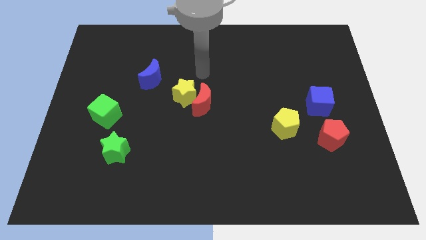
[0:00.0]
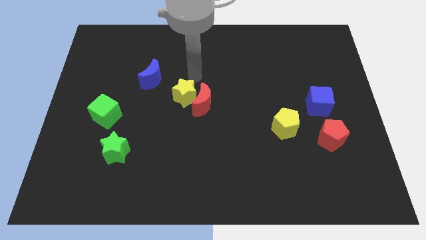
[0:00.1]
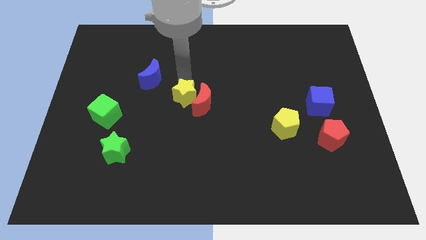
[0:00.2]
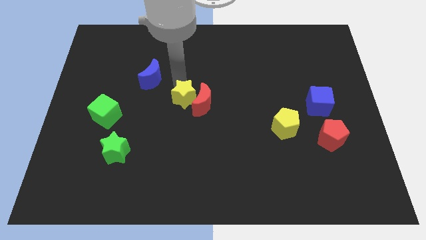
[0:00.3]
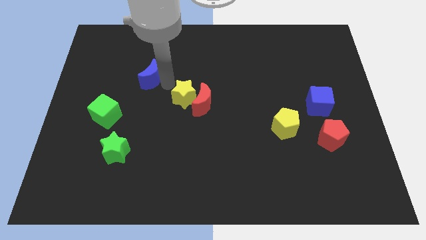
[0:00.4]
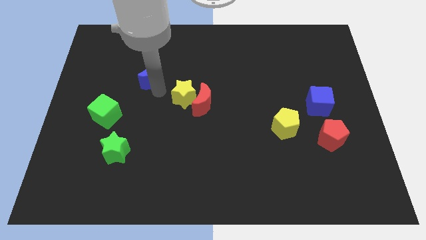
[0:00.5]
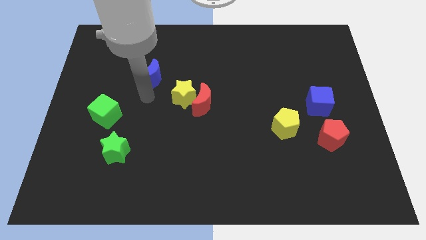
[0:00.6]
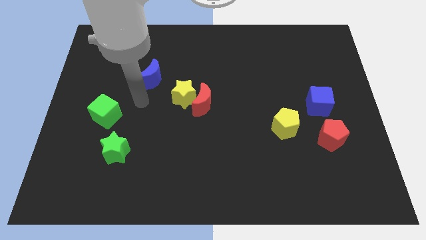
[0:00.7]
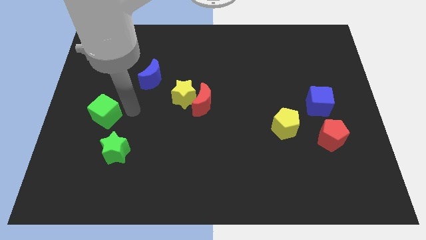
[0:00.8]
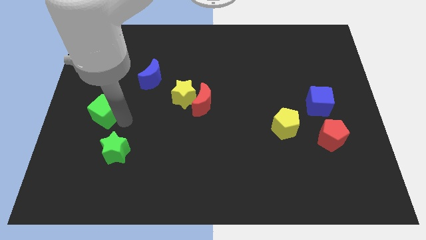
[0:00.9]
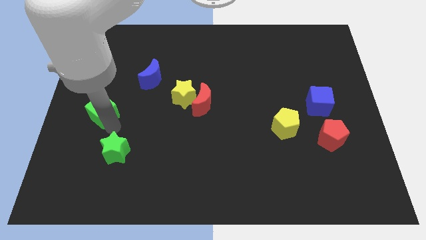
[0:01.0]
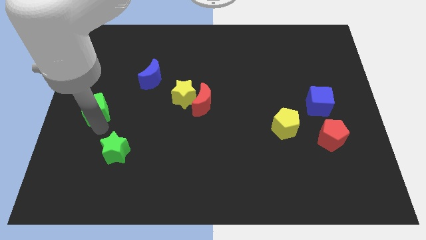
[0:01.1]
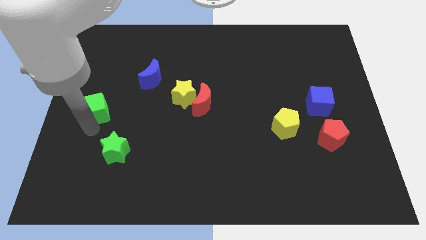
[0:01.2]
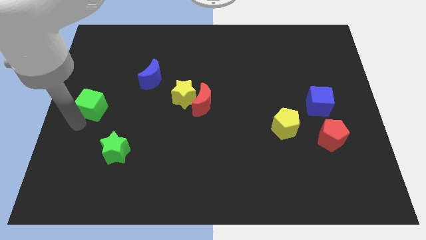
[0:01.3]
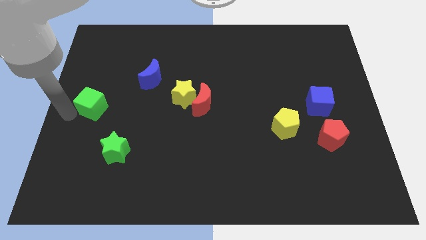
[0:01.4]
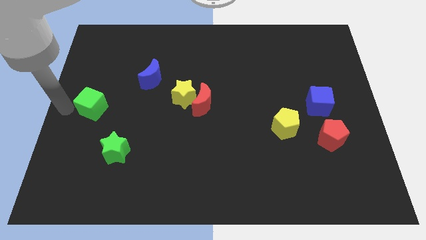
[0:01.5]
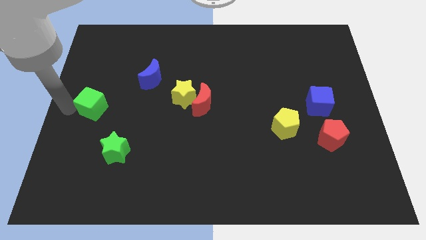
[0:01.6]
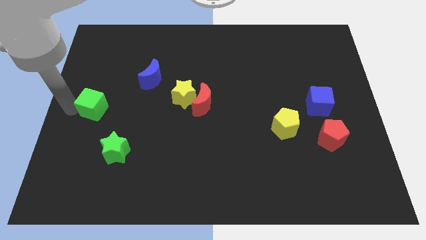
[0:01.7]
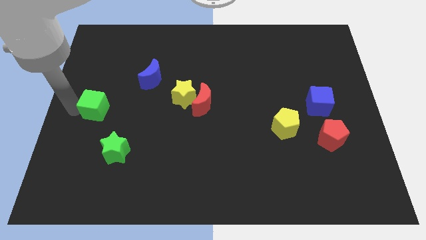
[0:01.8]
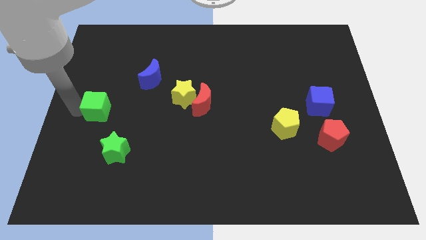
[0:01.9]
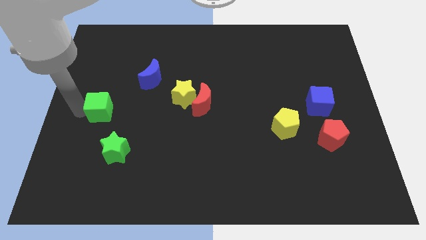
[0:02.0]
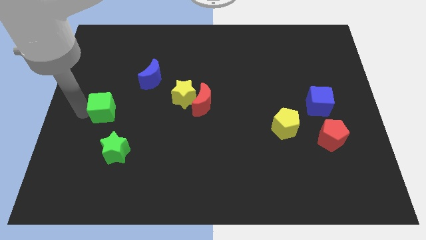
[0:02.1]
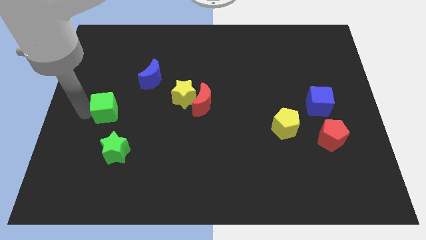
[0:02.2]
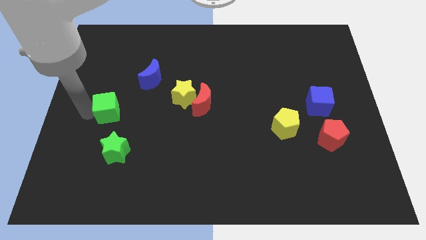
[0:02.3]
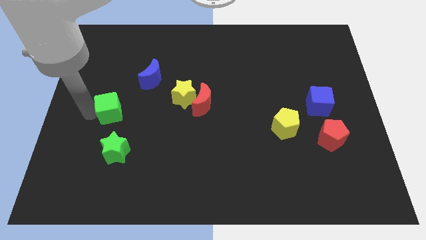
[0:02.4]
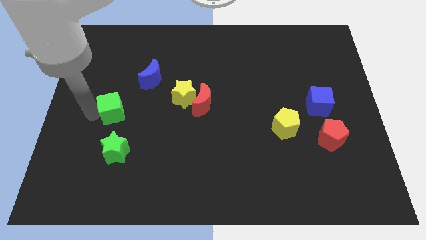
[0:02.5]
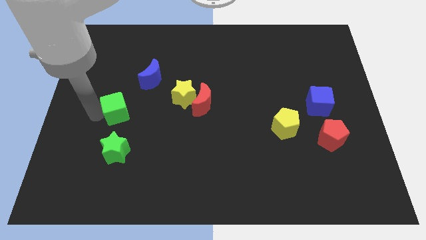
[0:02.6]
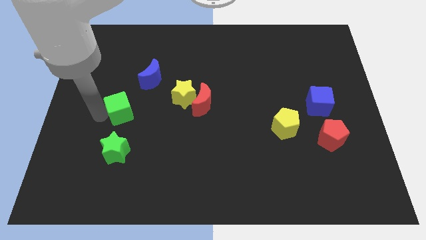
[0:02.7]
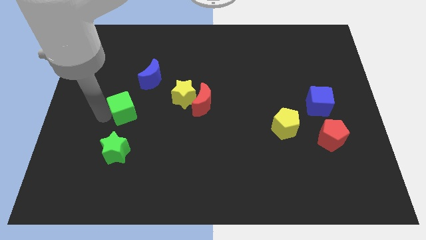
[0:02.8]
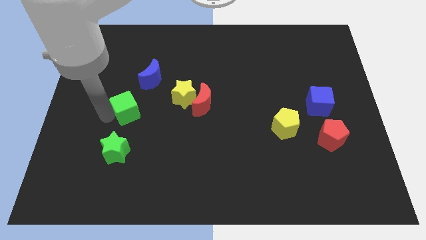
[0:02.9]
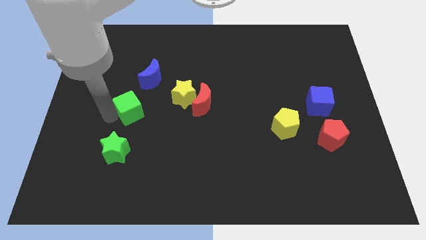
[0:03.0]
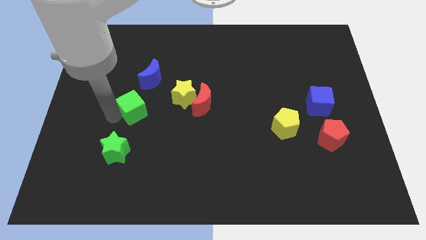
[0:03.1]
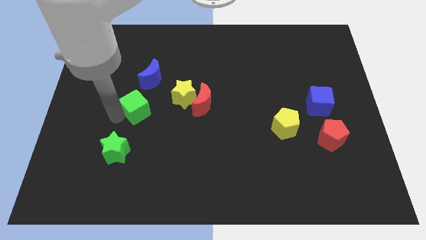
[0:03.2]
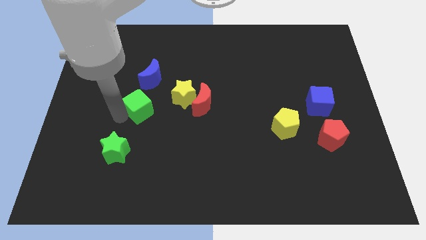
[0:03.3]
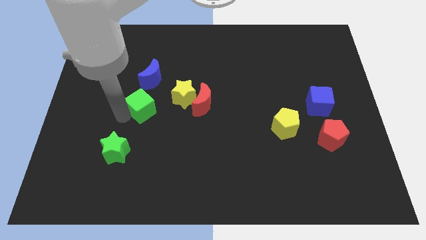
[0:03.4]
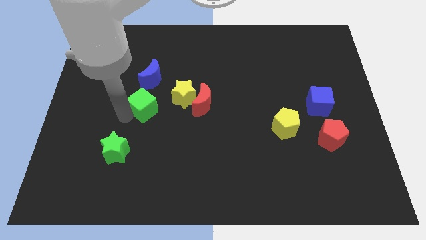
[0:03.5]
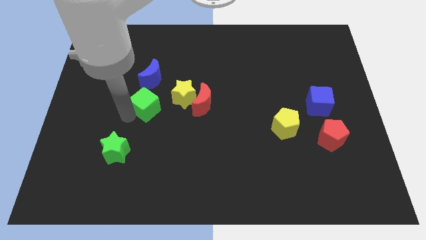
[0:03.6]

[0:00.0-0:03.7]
push the green cube a little upwards and then to the right

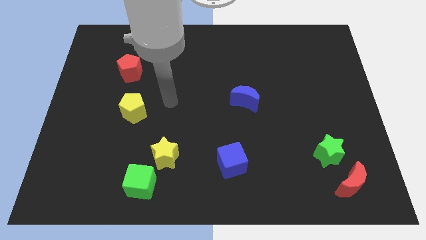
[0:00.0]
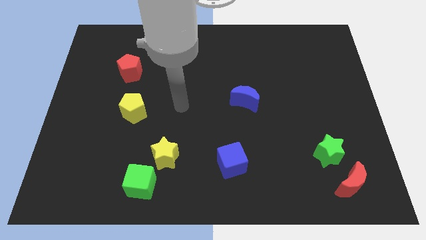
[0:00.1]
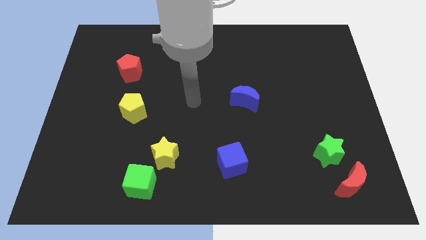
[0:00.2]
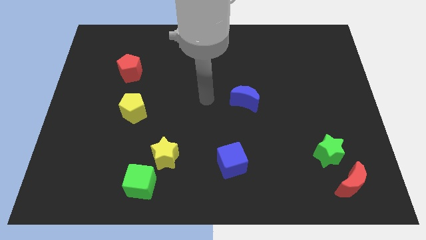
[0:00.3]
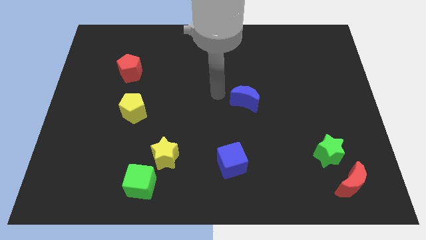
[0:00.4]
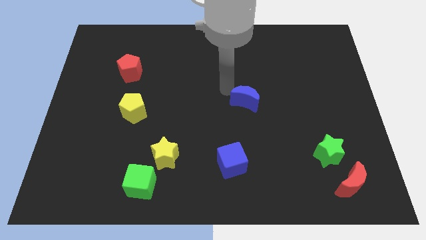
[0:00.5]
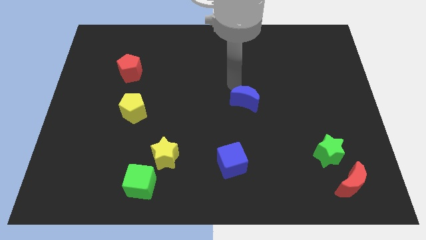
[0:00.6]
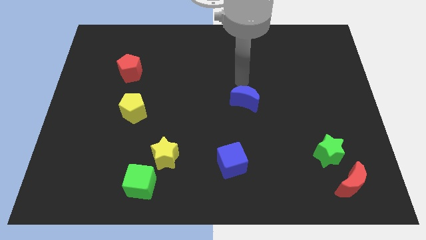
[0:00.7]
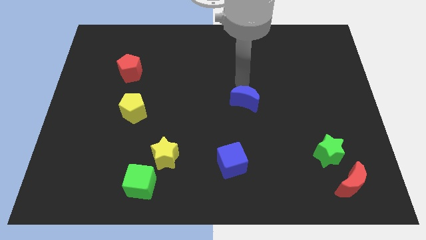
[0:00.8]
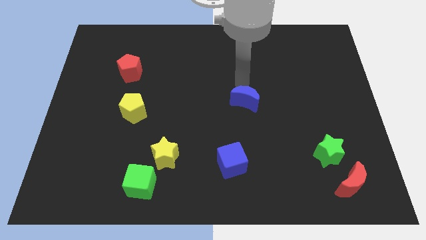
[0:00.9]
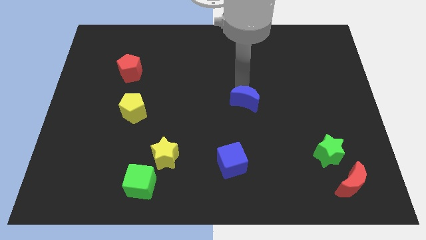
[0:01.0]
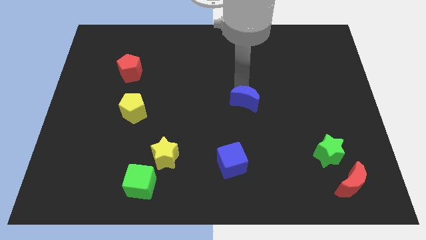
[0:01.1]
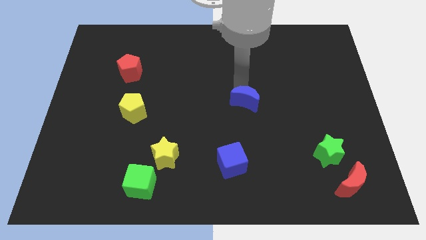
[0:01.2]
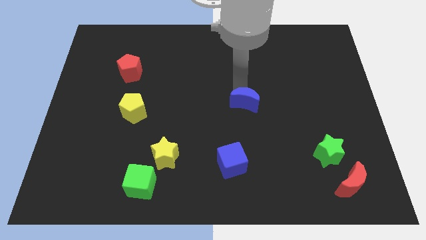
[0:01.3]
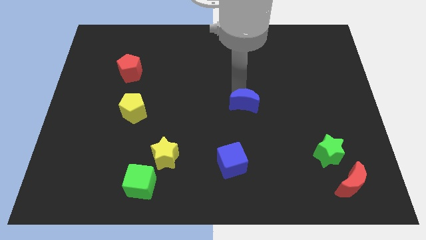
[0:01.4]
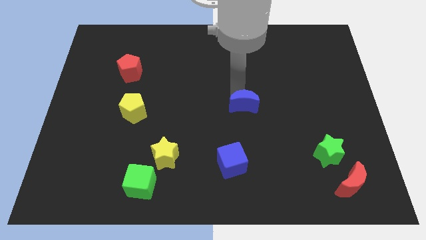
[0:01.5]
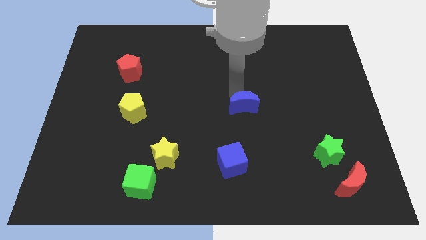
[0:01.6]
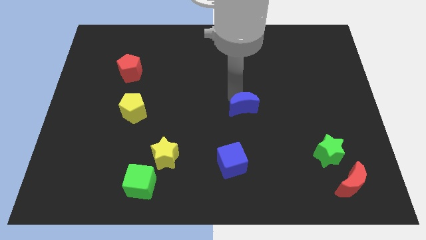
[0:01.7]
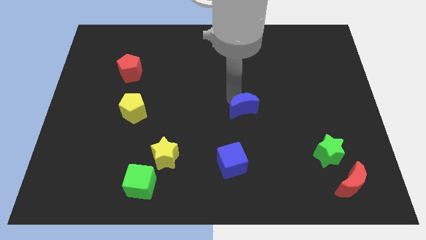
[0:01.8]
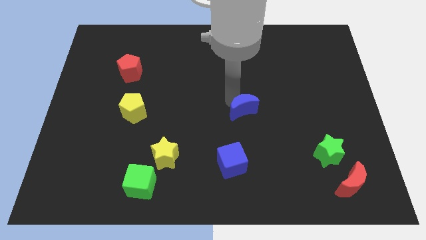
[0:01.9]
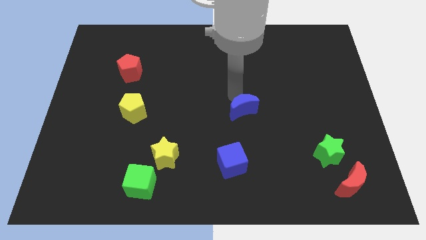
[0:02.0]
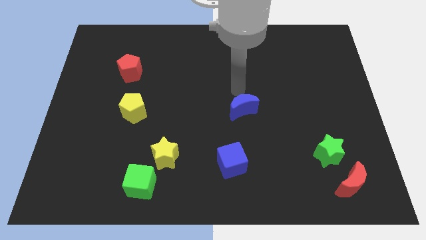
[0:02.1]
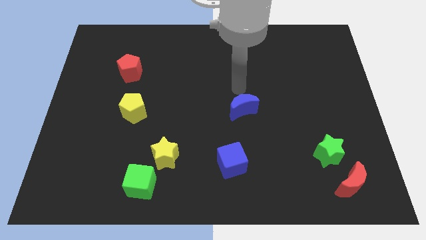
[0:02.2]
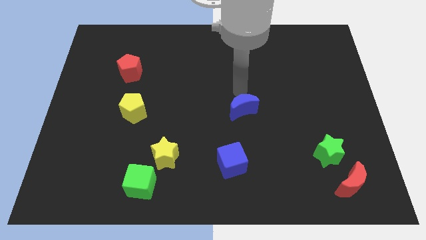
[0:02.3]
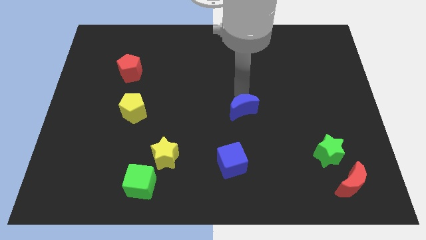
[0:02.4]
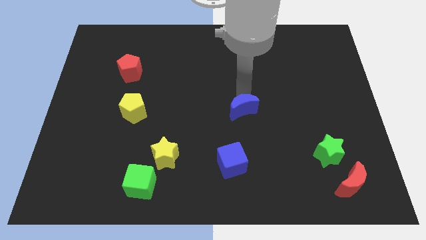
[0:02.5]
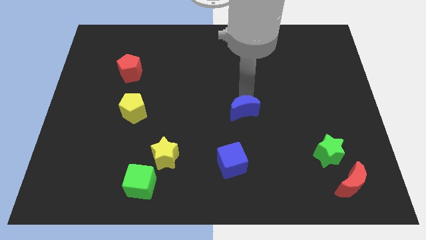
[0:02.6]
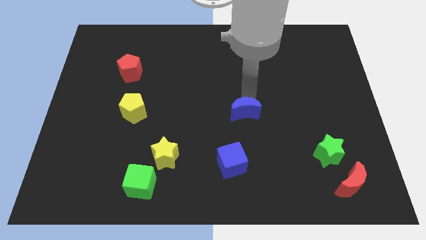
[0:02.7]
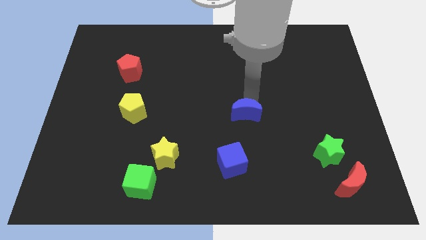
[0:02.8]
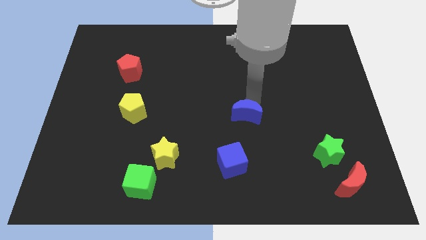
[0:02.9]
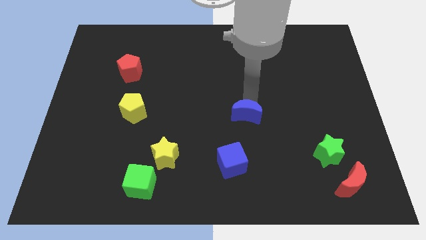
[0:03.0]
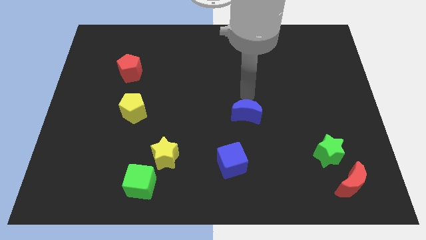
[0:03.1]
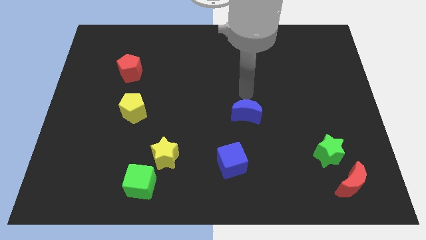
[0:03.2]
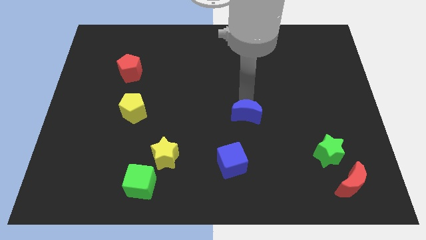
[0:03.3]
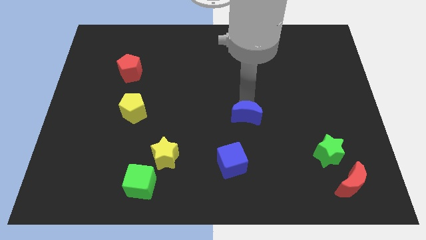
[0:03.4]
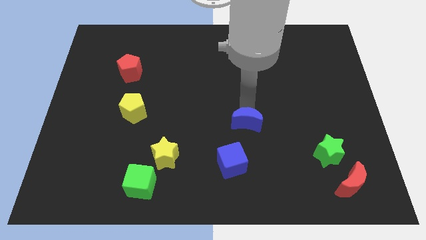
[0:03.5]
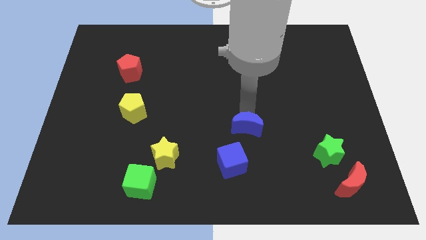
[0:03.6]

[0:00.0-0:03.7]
push the blue moon a bit down

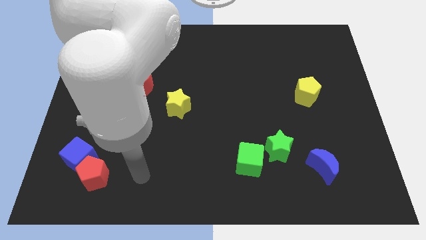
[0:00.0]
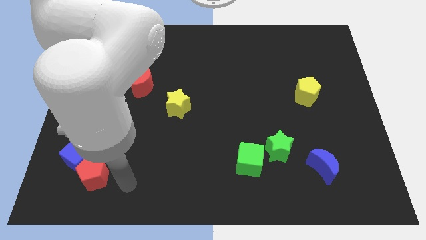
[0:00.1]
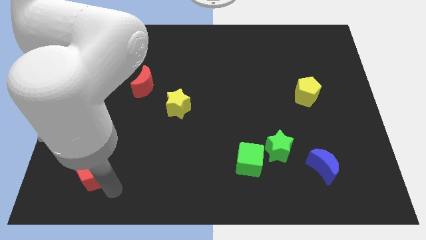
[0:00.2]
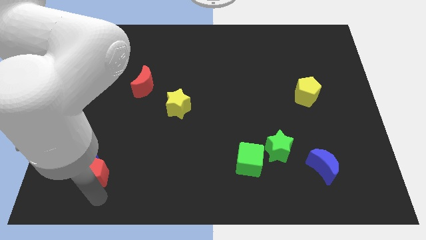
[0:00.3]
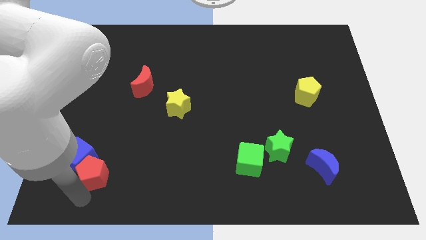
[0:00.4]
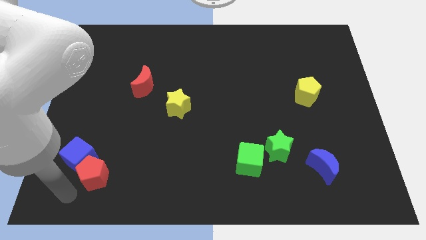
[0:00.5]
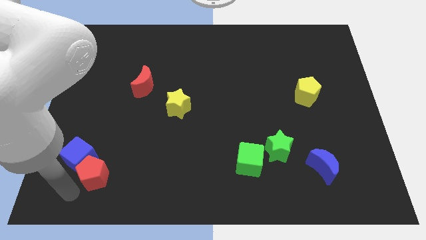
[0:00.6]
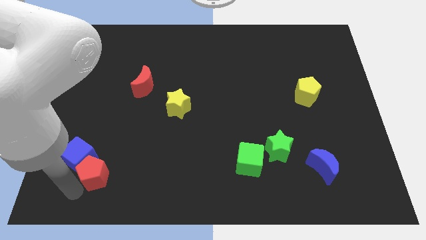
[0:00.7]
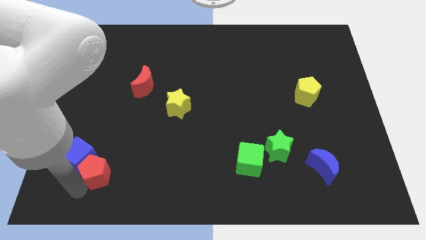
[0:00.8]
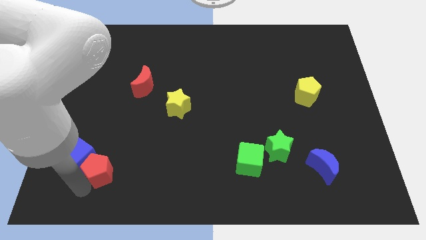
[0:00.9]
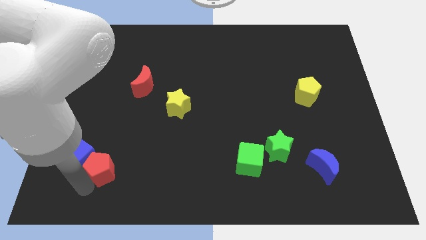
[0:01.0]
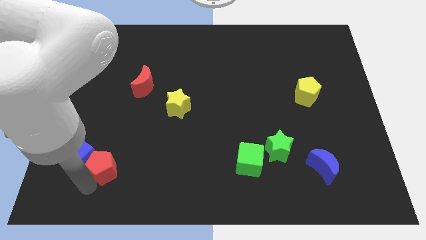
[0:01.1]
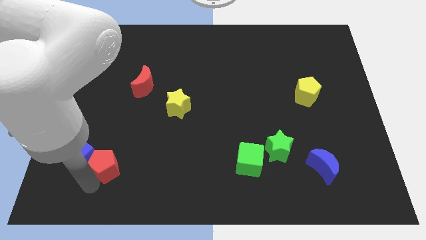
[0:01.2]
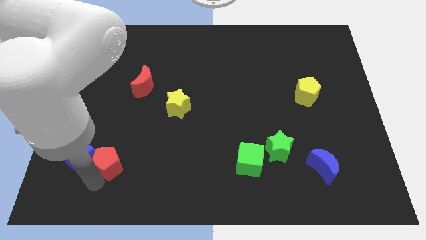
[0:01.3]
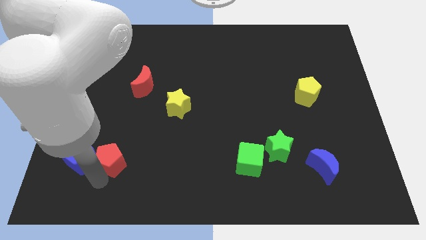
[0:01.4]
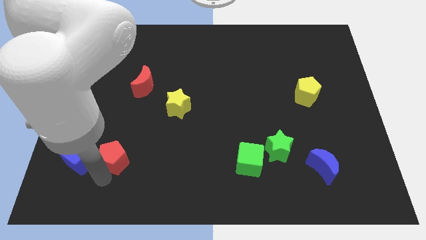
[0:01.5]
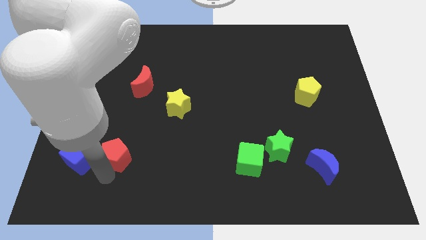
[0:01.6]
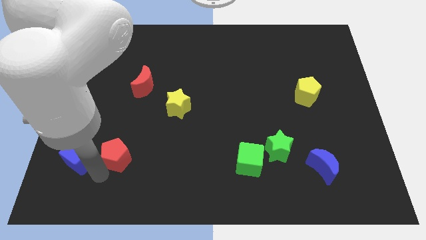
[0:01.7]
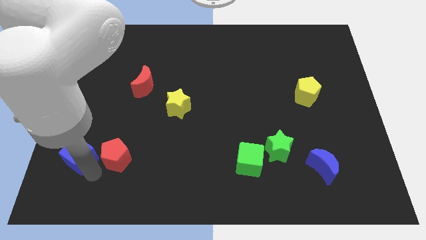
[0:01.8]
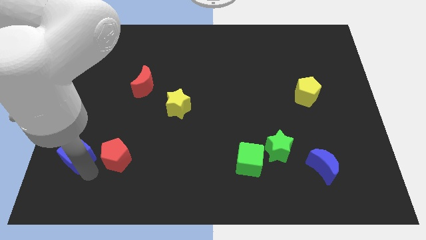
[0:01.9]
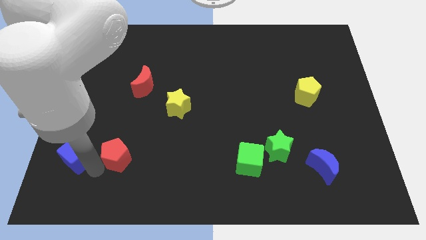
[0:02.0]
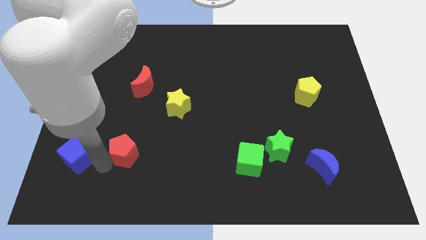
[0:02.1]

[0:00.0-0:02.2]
slide the red pentagon upwards and to the right somewhat
